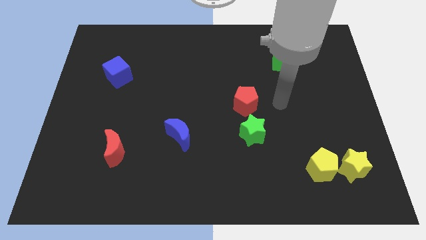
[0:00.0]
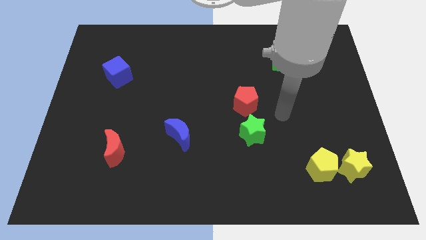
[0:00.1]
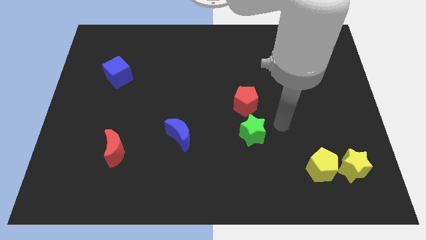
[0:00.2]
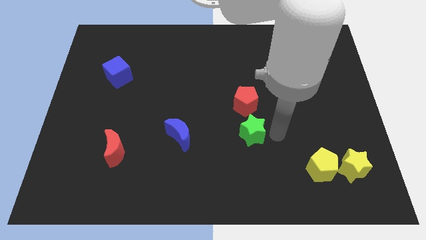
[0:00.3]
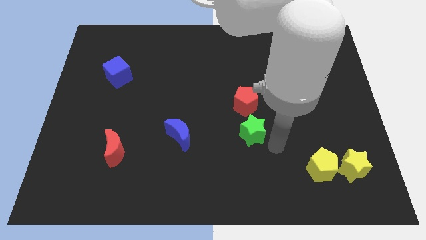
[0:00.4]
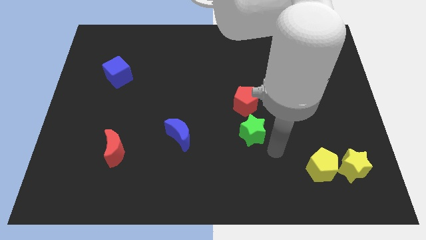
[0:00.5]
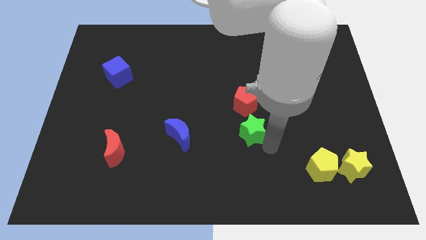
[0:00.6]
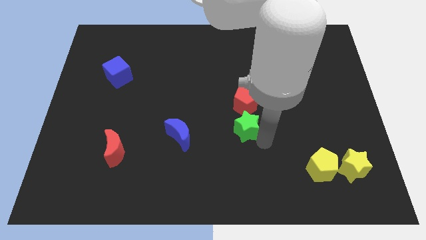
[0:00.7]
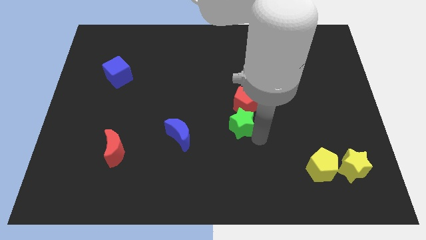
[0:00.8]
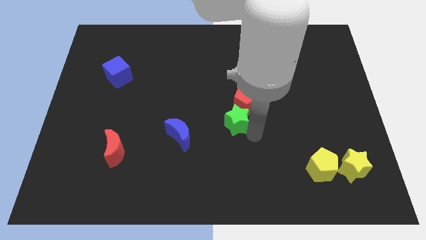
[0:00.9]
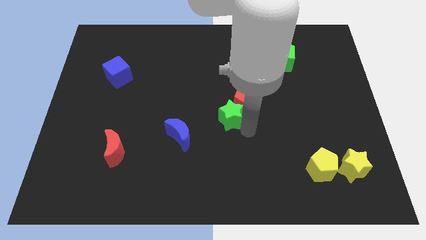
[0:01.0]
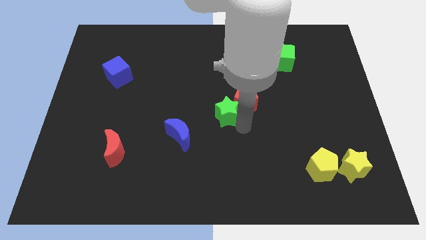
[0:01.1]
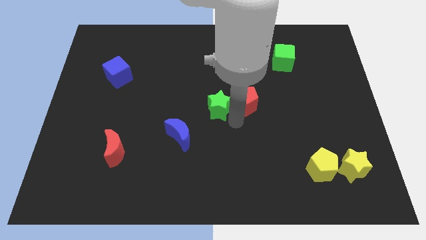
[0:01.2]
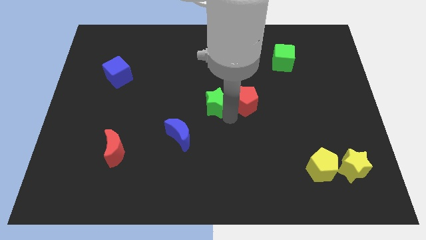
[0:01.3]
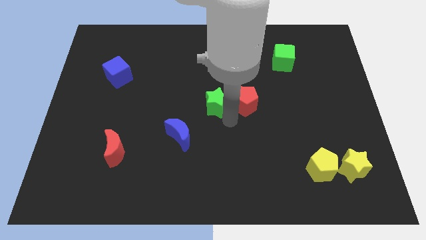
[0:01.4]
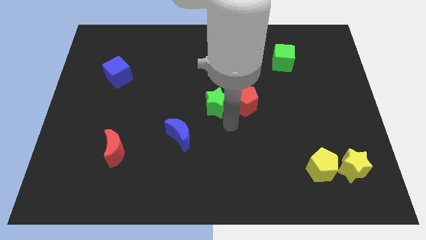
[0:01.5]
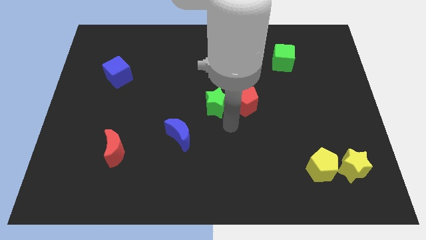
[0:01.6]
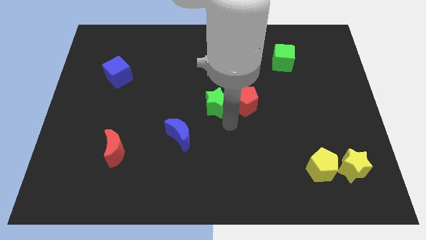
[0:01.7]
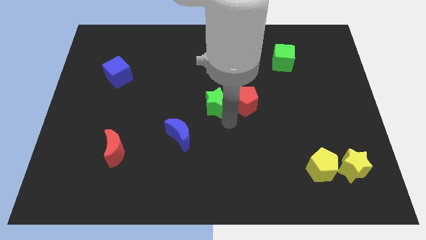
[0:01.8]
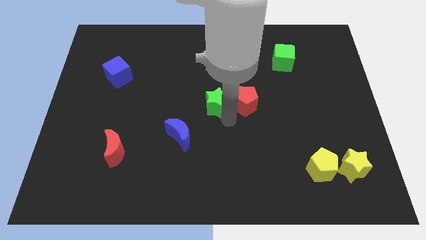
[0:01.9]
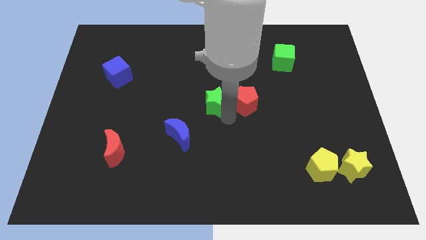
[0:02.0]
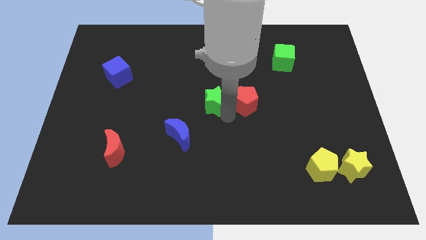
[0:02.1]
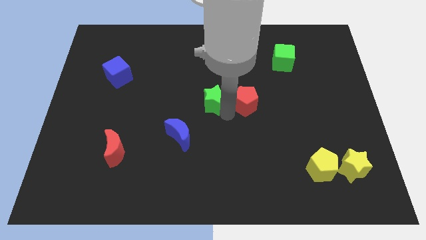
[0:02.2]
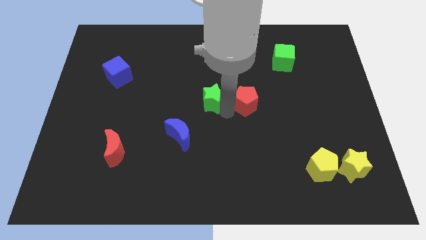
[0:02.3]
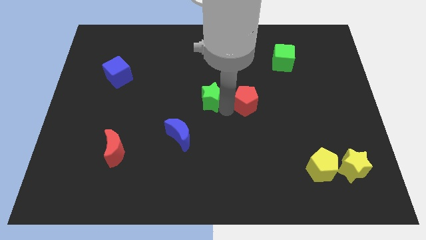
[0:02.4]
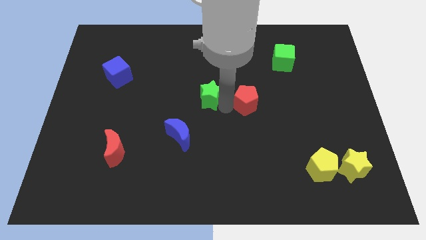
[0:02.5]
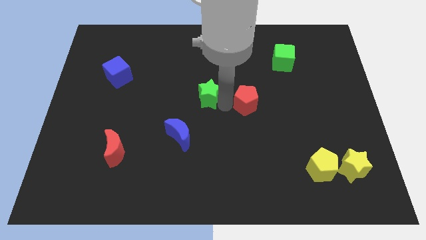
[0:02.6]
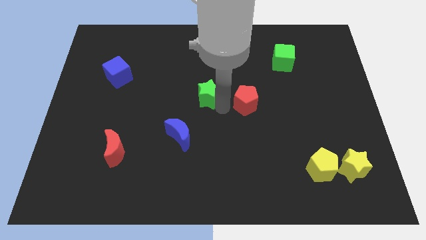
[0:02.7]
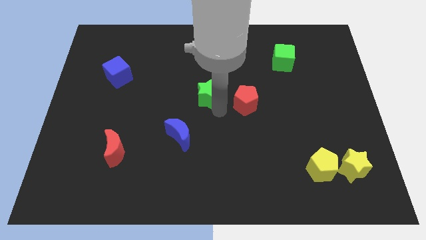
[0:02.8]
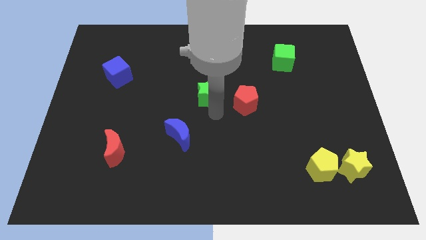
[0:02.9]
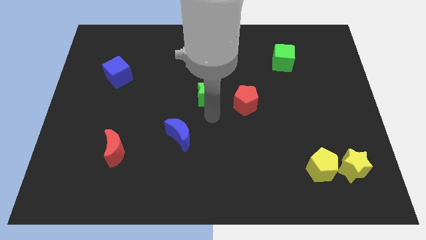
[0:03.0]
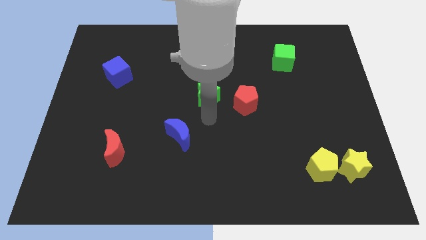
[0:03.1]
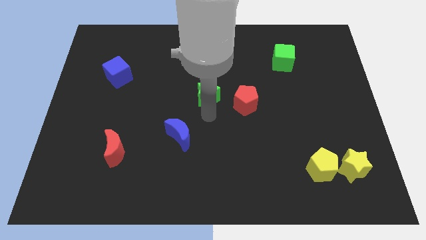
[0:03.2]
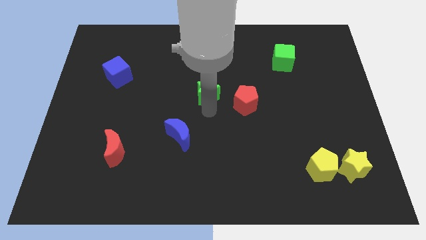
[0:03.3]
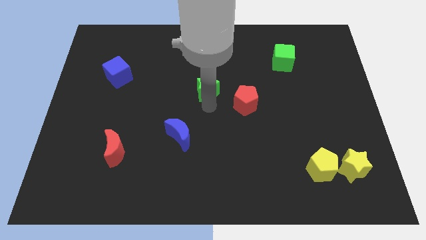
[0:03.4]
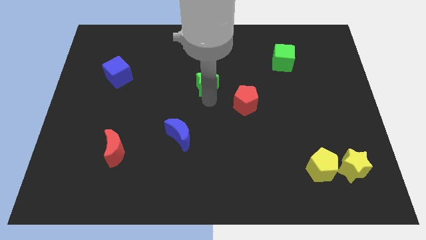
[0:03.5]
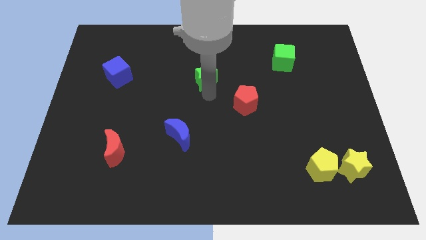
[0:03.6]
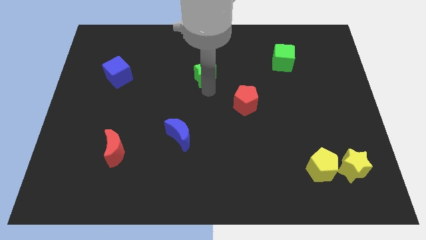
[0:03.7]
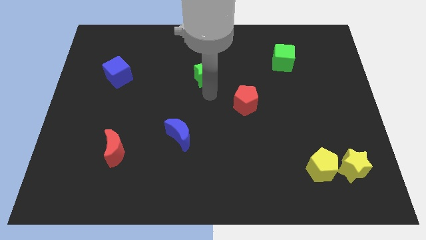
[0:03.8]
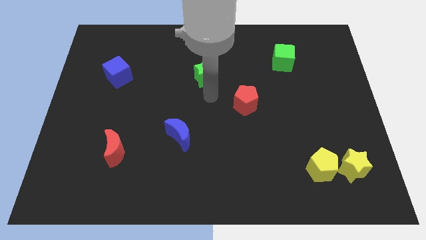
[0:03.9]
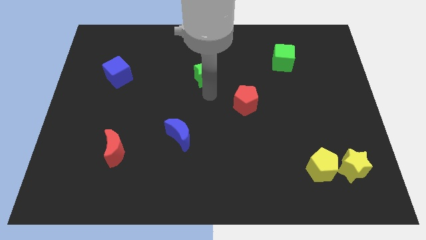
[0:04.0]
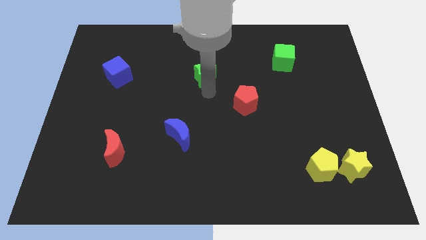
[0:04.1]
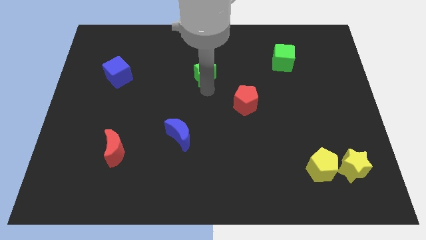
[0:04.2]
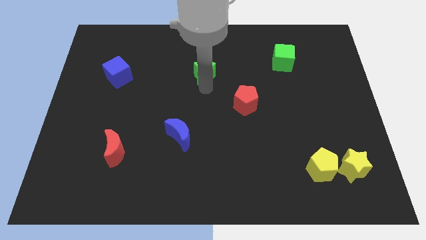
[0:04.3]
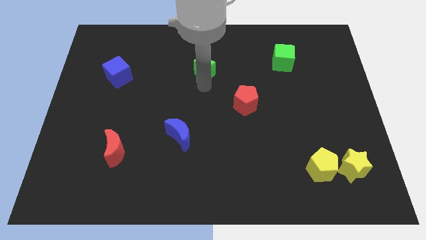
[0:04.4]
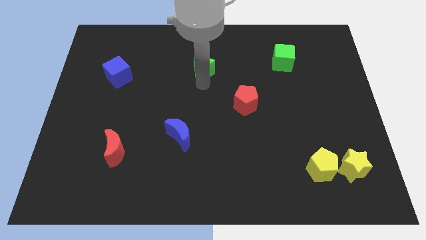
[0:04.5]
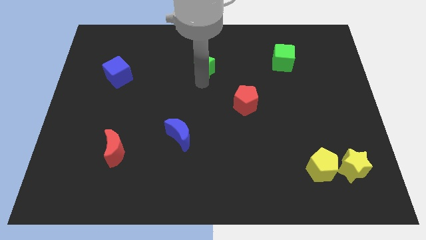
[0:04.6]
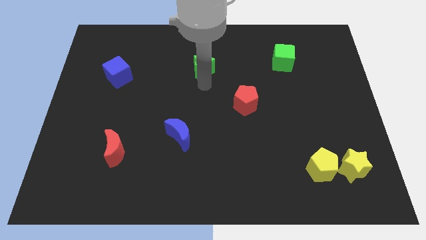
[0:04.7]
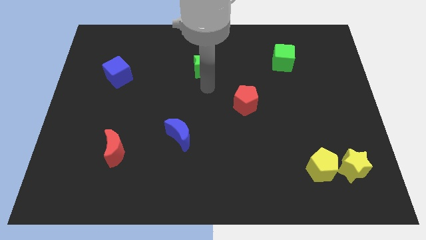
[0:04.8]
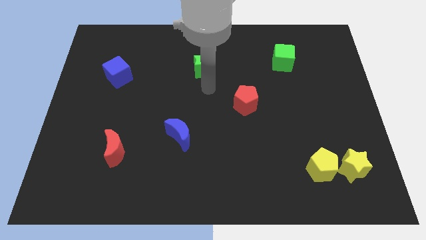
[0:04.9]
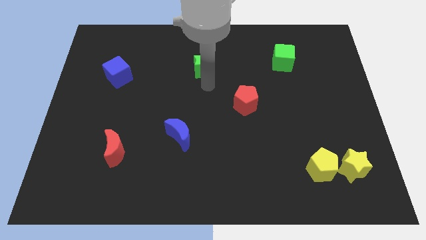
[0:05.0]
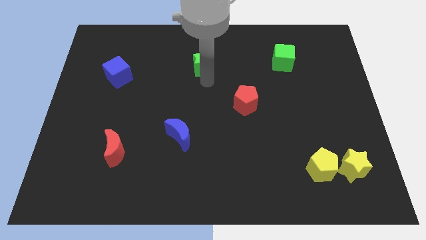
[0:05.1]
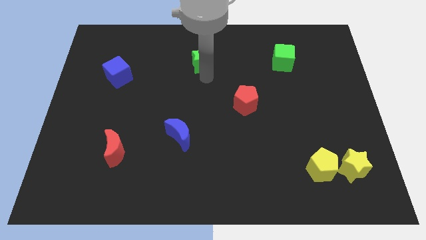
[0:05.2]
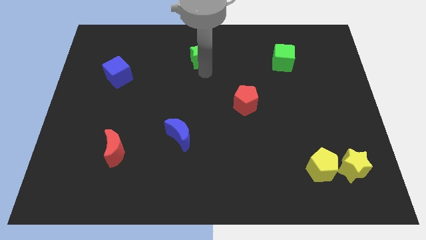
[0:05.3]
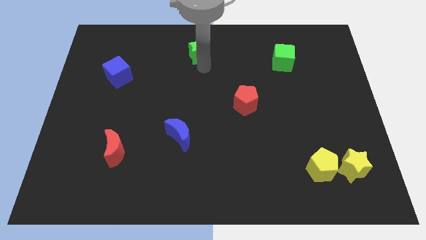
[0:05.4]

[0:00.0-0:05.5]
move the green star to the top

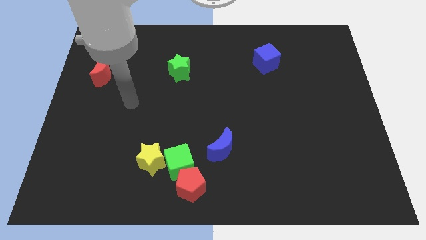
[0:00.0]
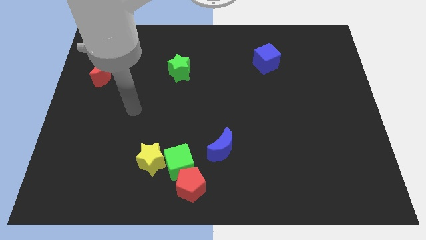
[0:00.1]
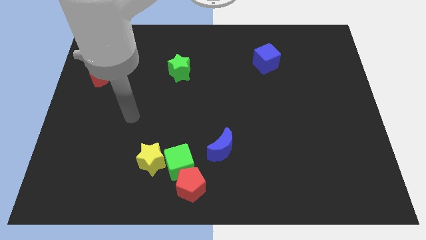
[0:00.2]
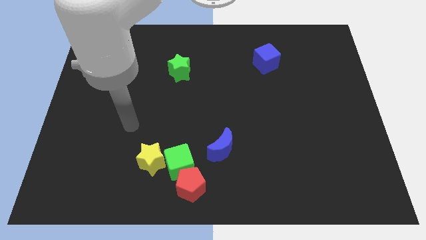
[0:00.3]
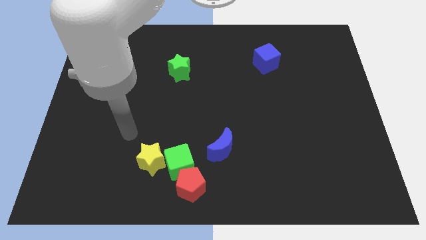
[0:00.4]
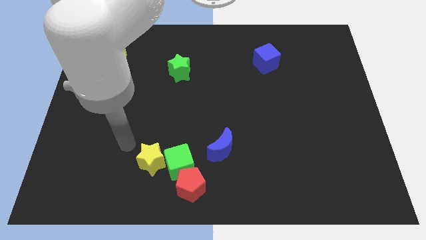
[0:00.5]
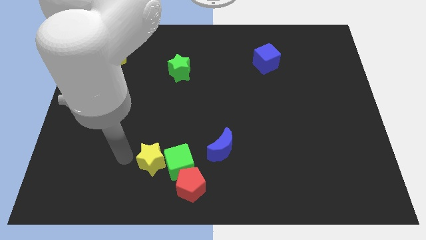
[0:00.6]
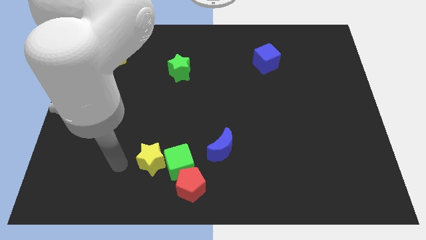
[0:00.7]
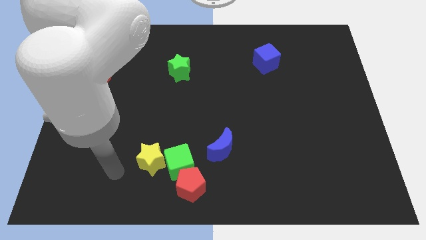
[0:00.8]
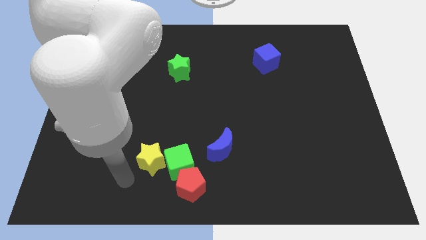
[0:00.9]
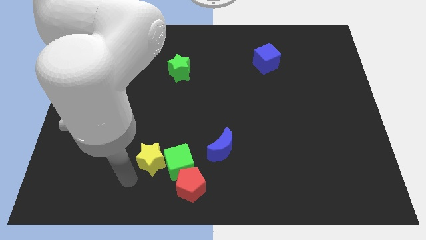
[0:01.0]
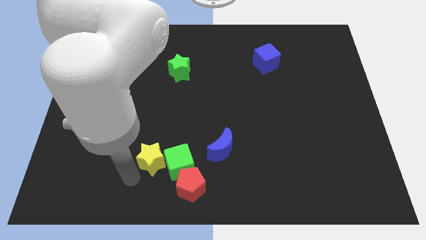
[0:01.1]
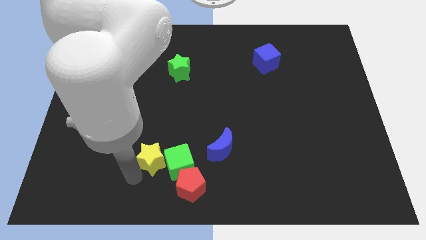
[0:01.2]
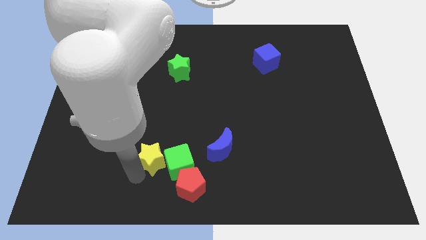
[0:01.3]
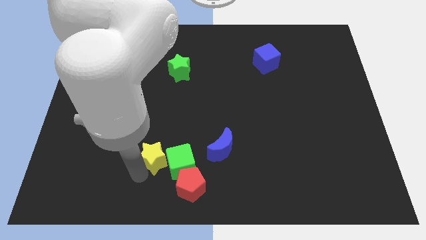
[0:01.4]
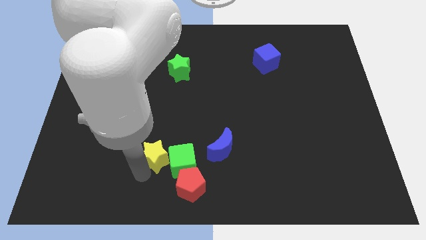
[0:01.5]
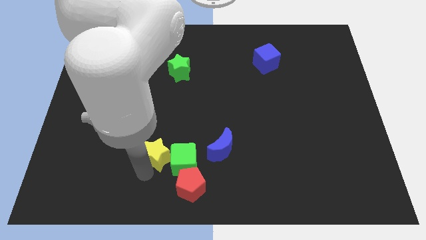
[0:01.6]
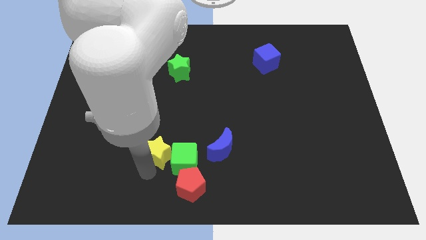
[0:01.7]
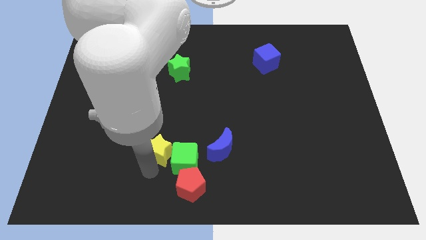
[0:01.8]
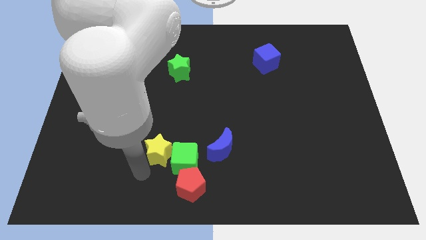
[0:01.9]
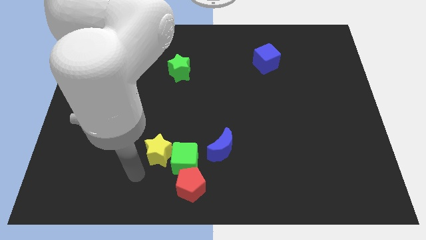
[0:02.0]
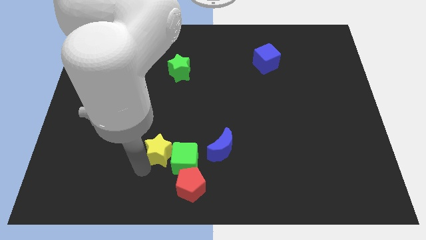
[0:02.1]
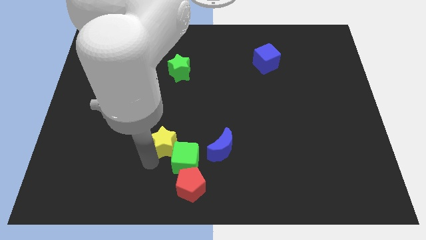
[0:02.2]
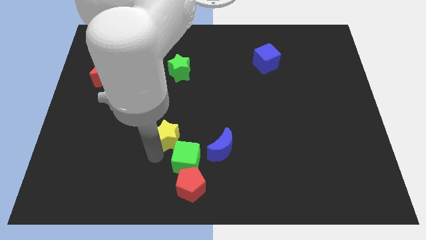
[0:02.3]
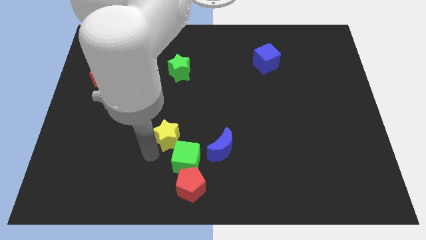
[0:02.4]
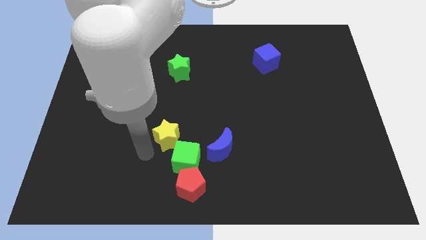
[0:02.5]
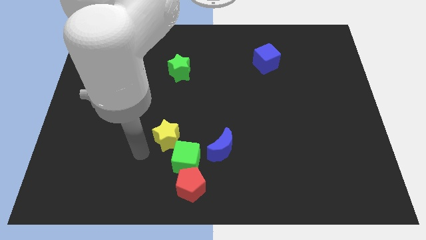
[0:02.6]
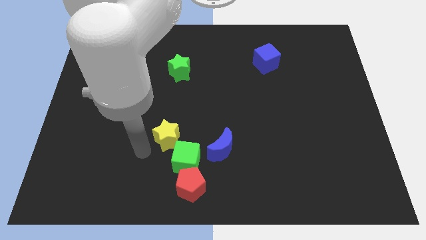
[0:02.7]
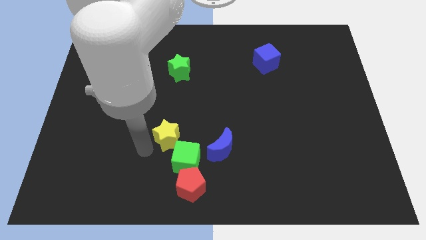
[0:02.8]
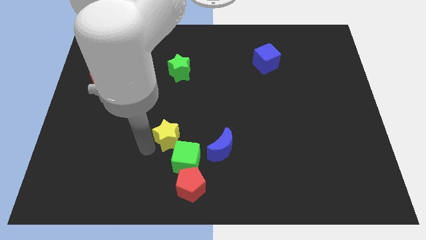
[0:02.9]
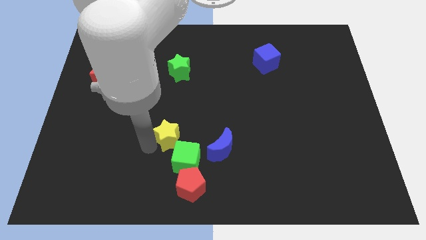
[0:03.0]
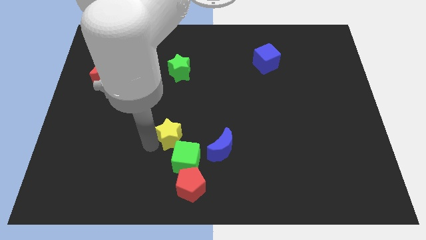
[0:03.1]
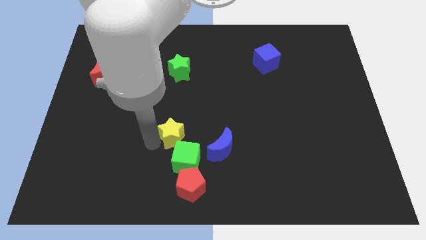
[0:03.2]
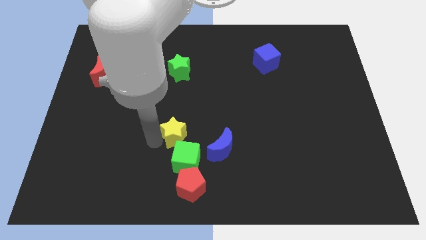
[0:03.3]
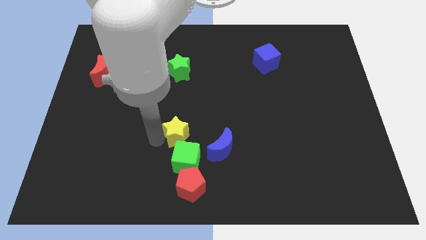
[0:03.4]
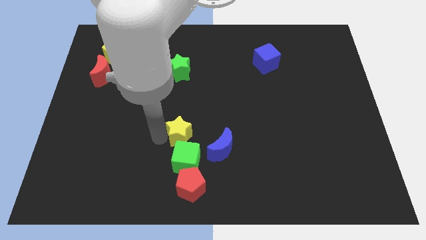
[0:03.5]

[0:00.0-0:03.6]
push the yellow star to the middle
